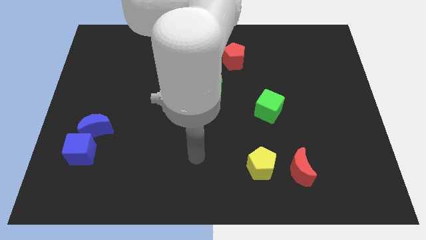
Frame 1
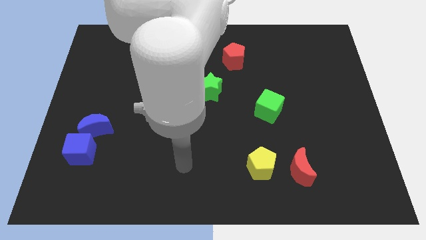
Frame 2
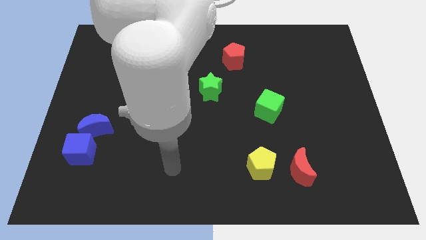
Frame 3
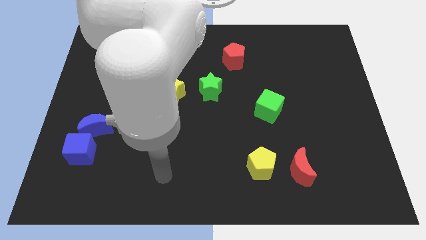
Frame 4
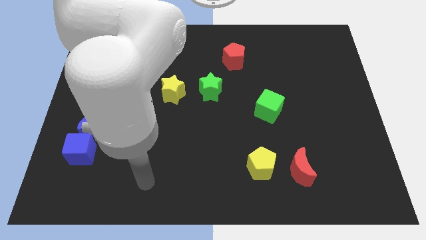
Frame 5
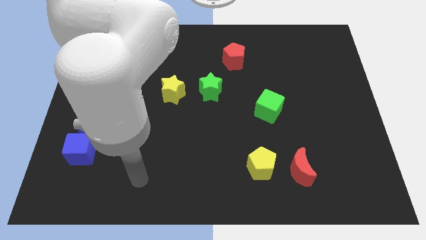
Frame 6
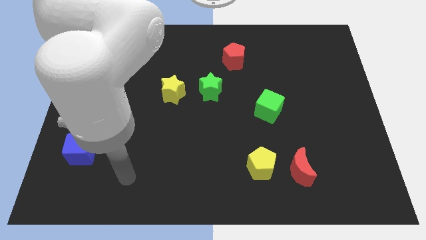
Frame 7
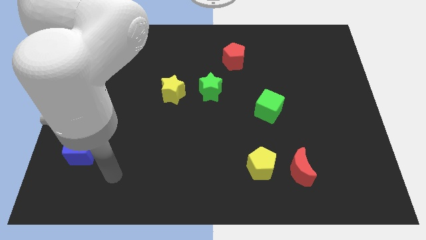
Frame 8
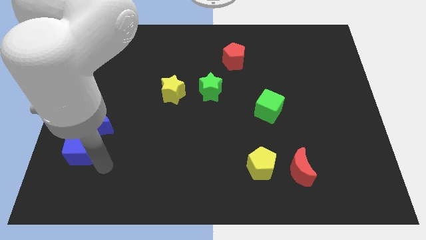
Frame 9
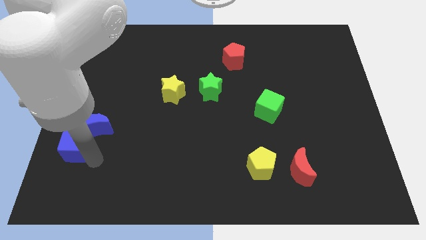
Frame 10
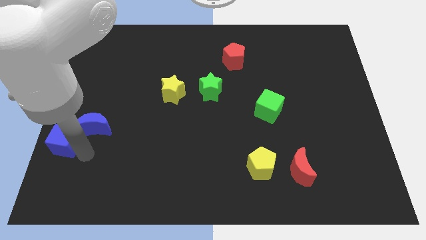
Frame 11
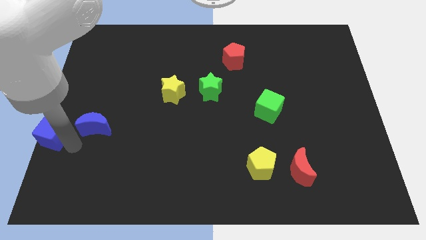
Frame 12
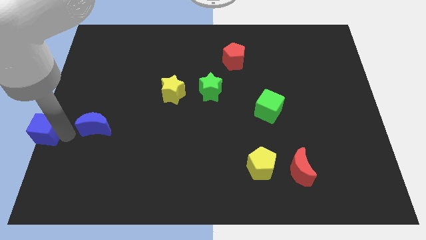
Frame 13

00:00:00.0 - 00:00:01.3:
pull the blue moon apart from the blue cube

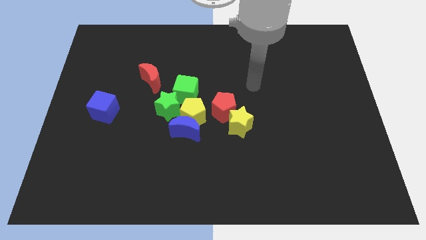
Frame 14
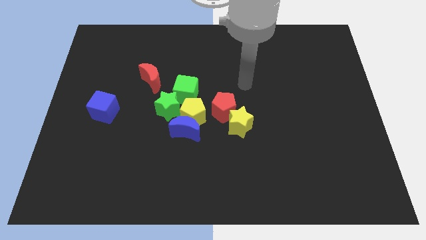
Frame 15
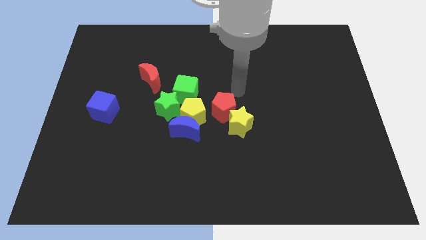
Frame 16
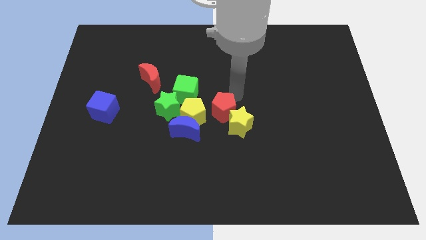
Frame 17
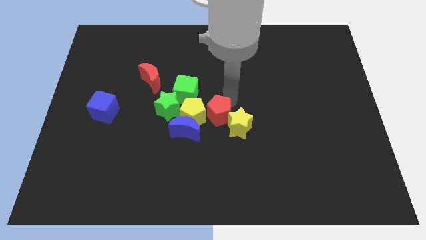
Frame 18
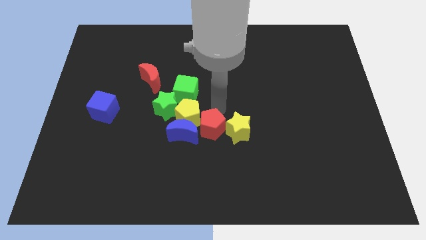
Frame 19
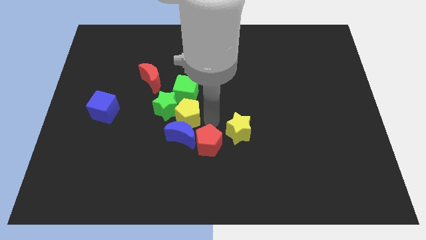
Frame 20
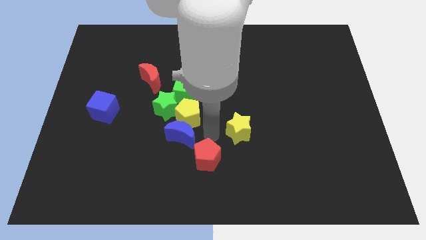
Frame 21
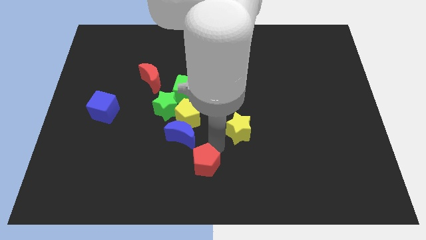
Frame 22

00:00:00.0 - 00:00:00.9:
pull the yellow star apart from the red pentagon

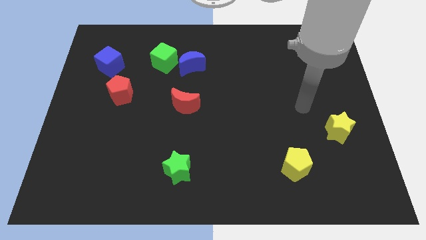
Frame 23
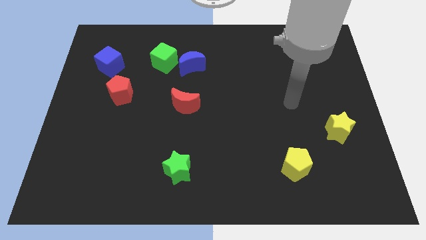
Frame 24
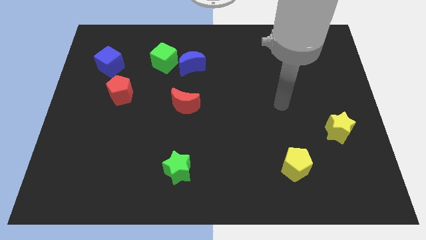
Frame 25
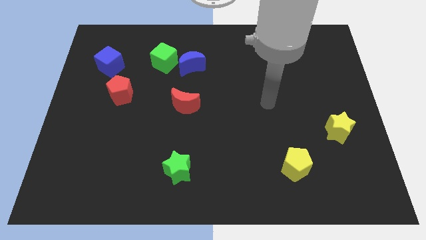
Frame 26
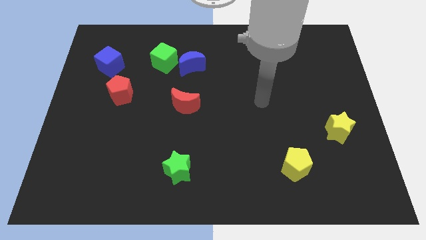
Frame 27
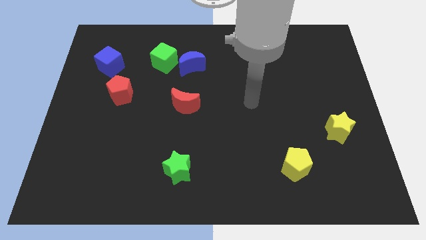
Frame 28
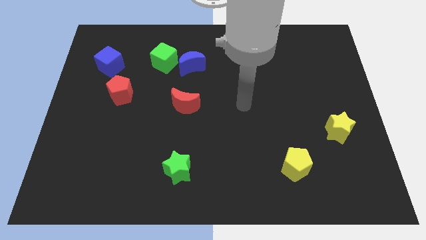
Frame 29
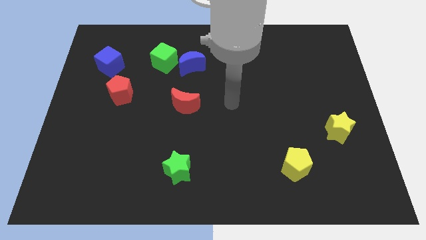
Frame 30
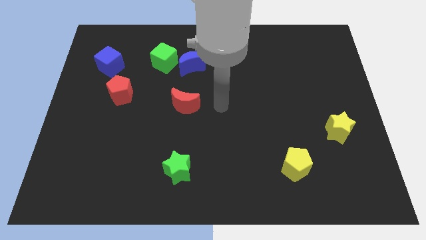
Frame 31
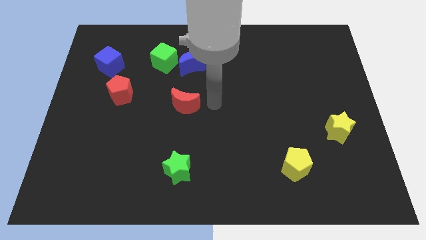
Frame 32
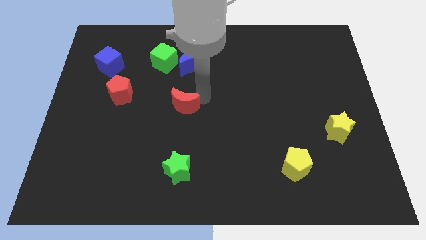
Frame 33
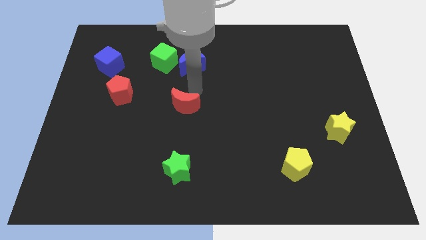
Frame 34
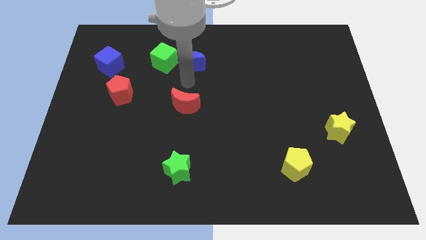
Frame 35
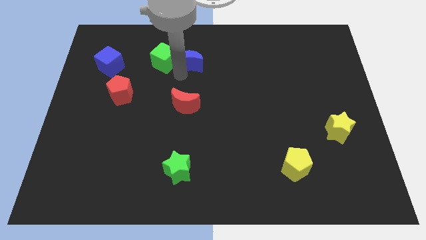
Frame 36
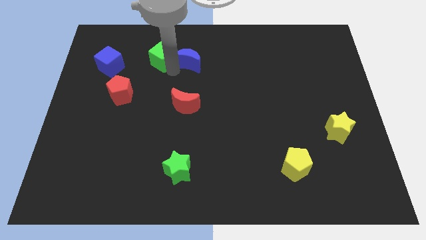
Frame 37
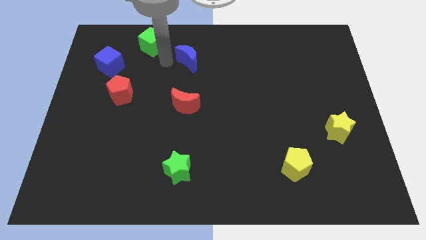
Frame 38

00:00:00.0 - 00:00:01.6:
pull the blue moon apart from the green cube

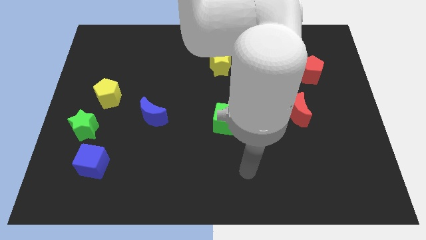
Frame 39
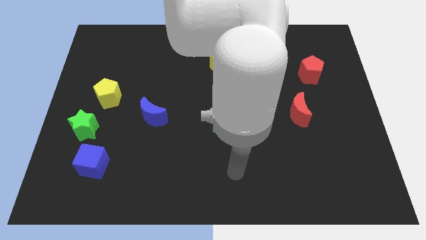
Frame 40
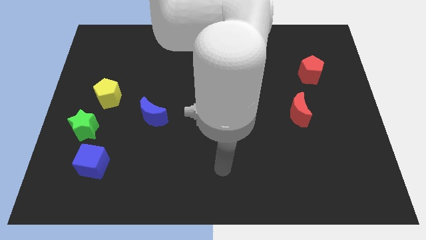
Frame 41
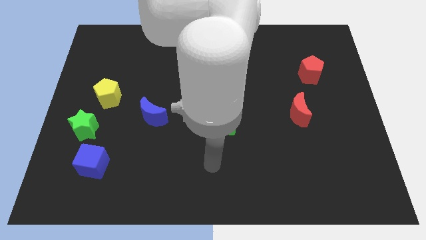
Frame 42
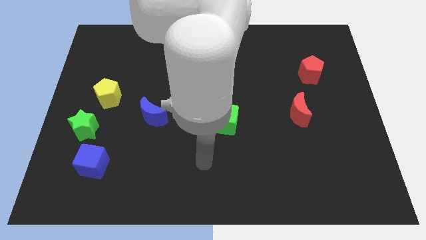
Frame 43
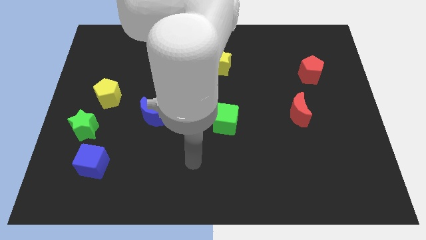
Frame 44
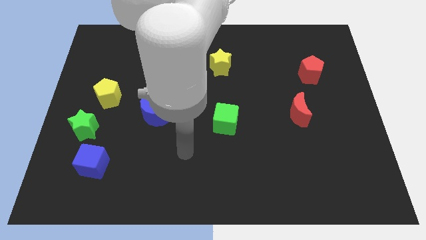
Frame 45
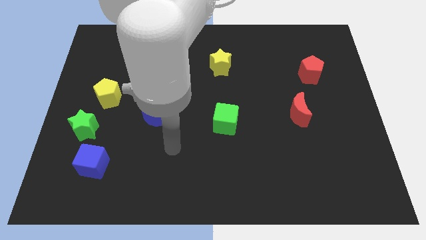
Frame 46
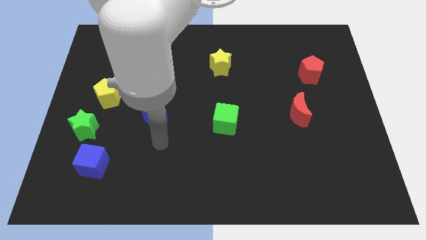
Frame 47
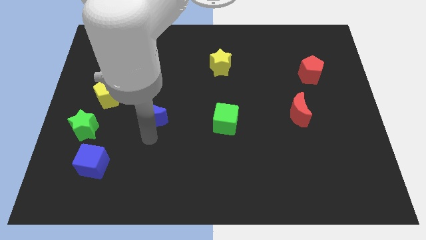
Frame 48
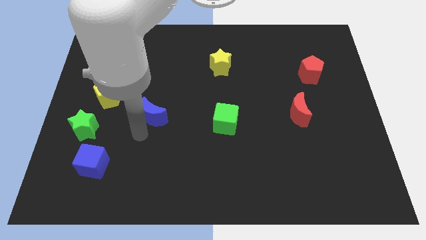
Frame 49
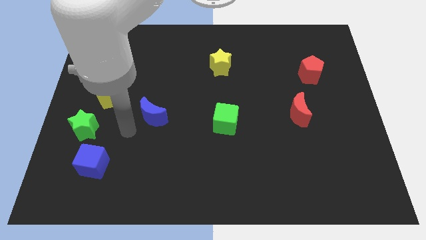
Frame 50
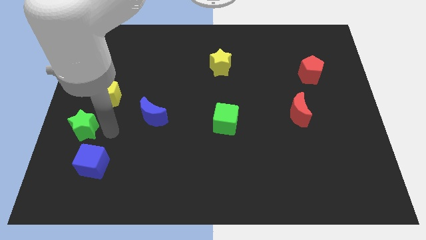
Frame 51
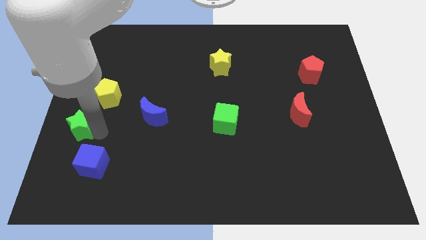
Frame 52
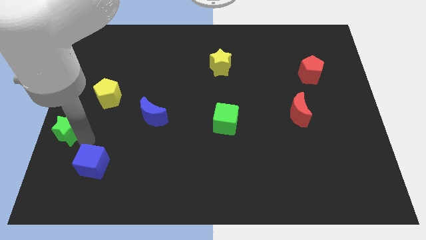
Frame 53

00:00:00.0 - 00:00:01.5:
pull the blue cube apart from the green star

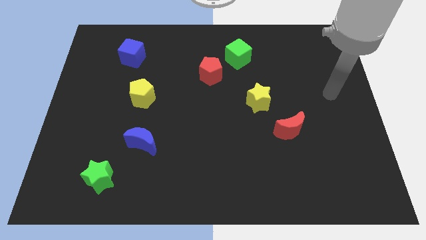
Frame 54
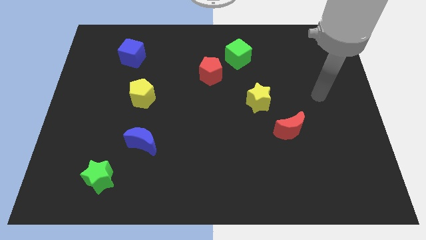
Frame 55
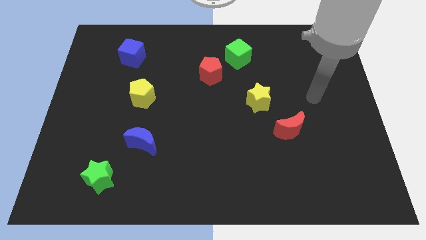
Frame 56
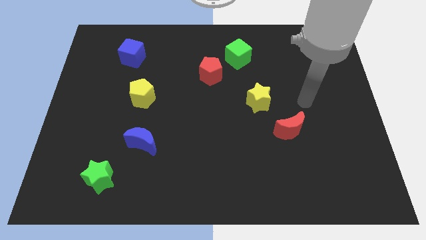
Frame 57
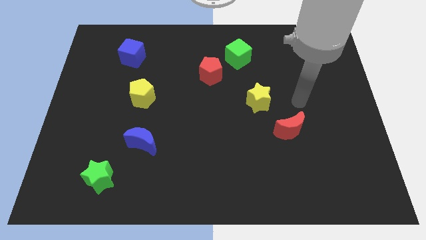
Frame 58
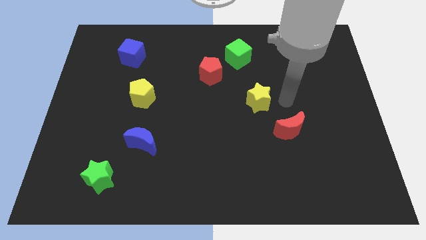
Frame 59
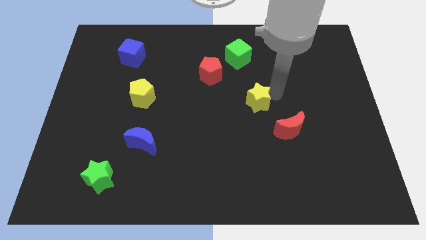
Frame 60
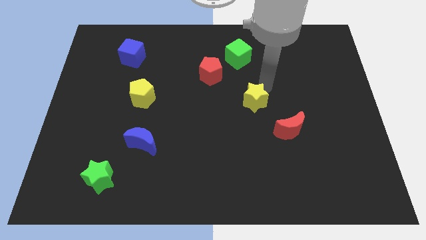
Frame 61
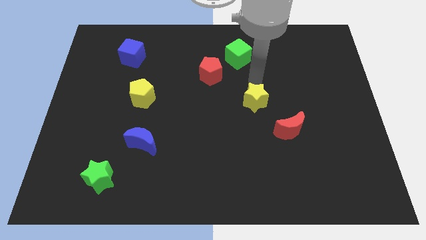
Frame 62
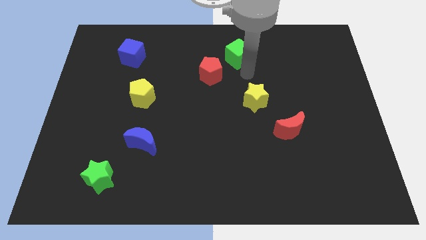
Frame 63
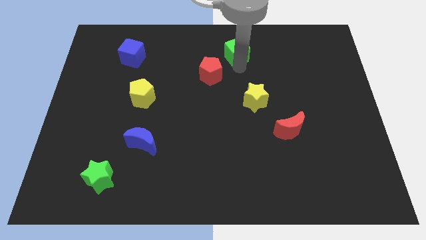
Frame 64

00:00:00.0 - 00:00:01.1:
pull the red pentagon apart from the green cube

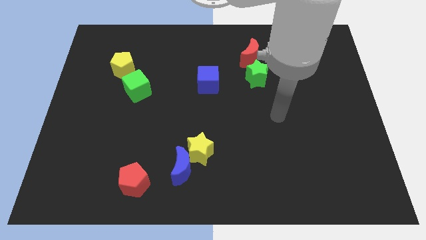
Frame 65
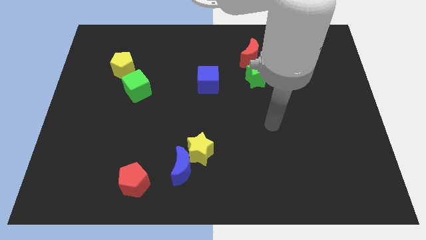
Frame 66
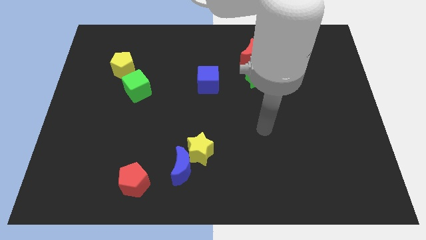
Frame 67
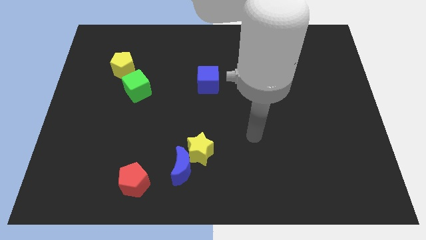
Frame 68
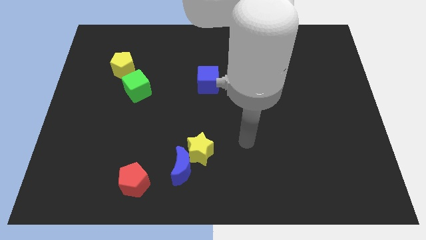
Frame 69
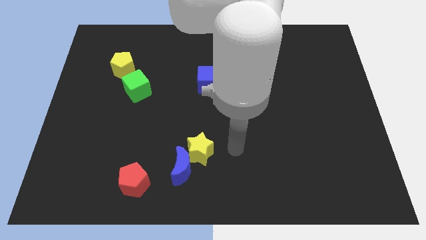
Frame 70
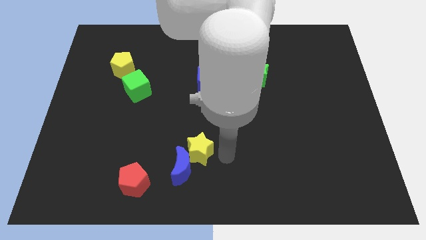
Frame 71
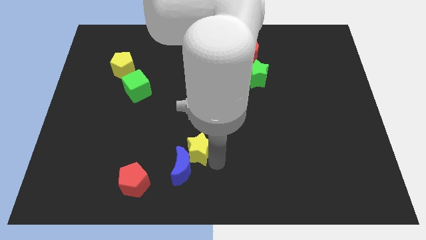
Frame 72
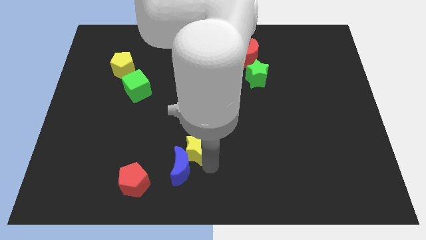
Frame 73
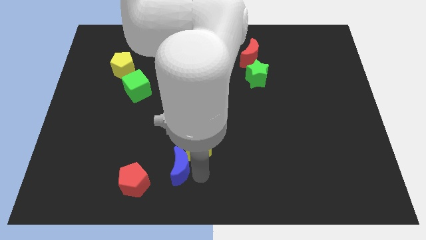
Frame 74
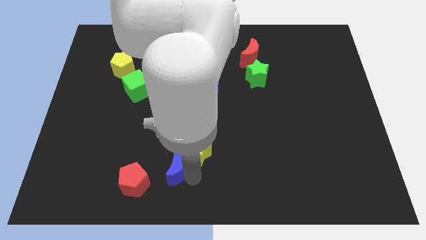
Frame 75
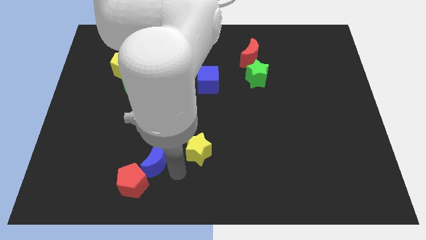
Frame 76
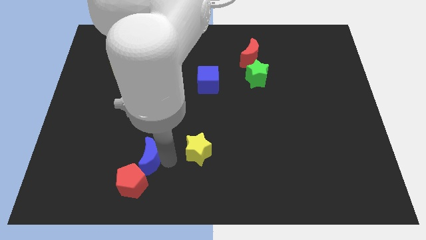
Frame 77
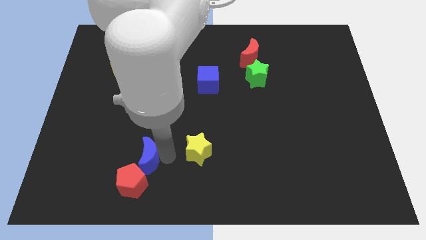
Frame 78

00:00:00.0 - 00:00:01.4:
move the yellow star away from the blue moon

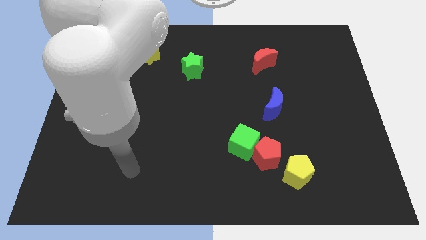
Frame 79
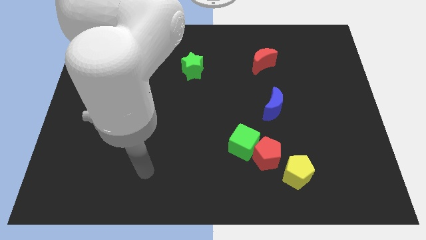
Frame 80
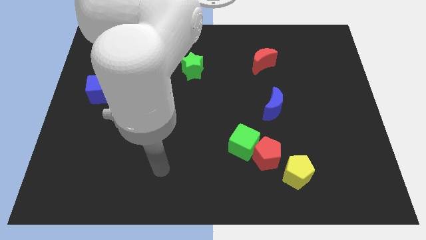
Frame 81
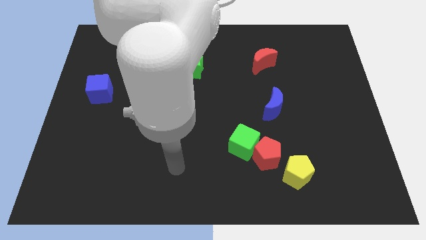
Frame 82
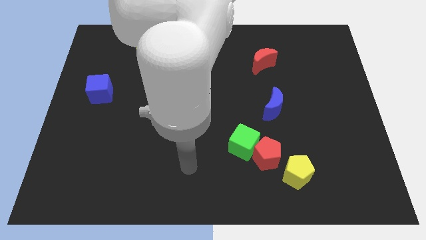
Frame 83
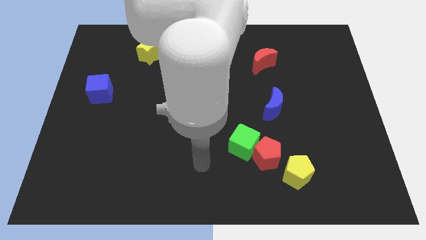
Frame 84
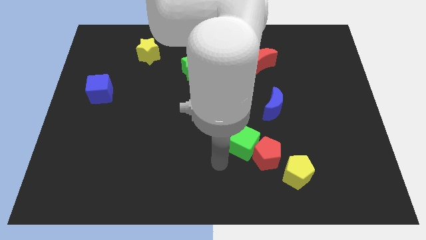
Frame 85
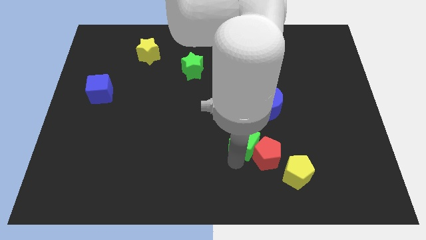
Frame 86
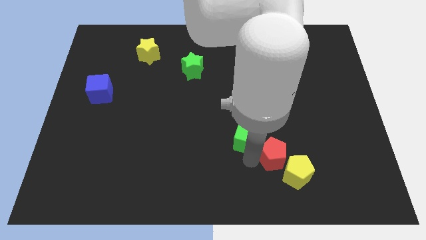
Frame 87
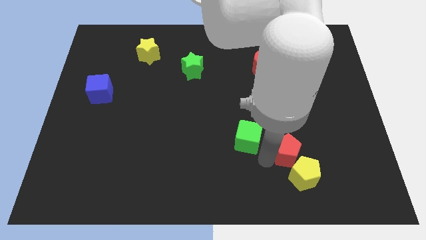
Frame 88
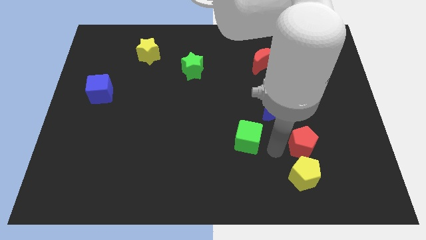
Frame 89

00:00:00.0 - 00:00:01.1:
move the green cube away from the red pentagon

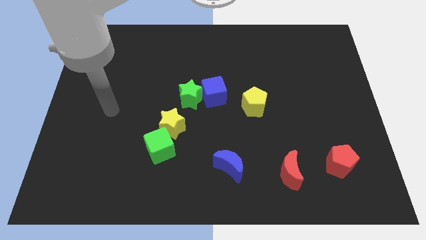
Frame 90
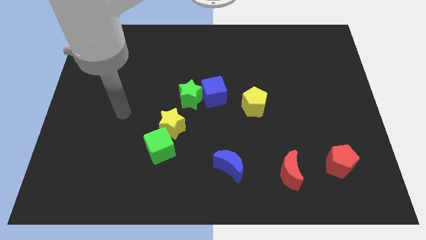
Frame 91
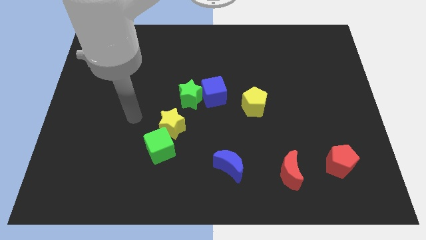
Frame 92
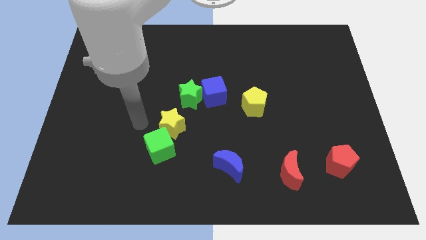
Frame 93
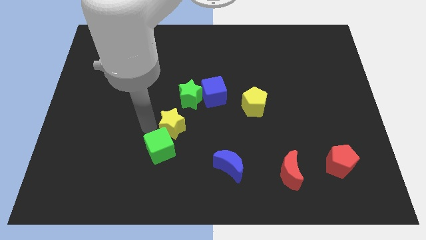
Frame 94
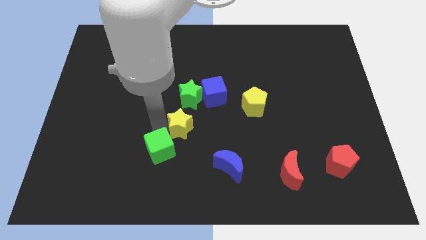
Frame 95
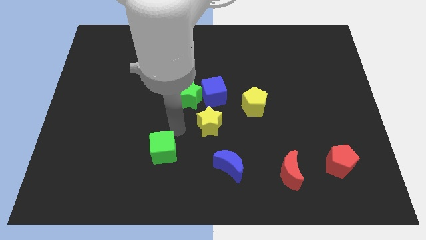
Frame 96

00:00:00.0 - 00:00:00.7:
separate the green cube from the yellow star
